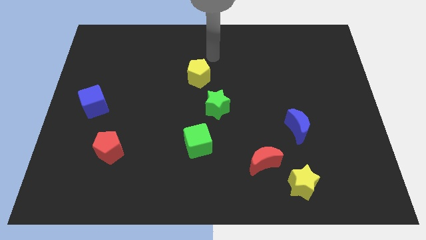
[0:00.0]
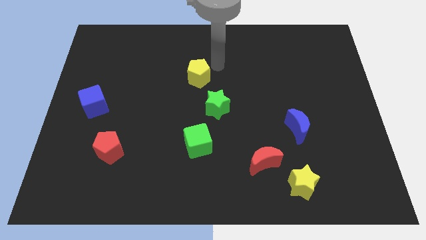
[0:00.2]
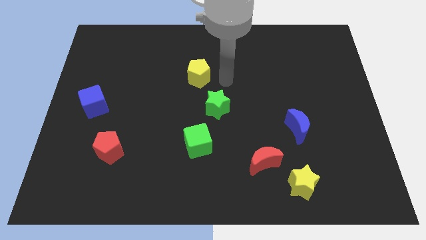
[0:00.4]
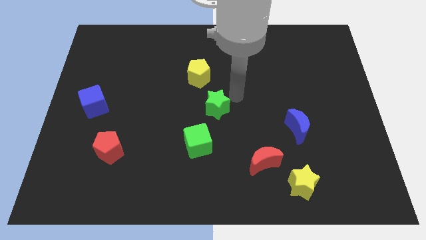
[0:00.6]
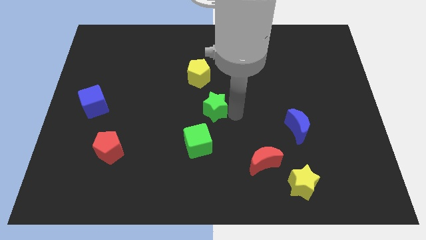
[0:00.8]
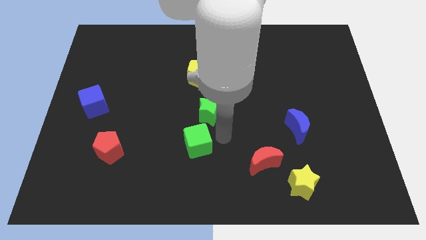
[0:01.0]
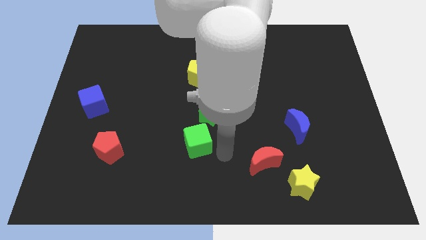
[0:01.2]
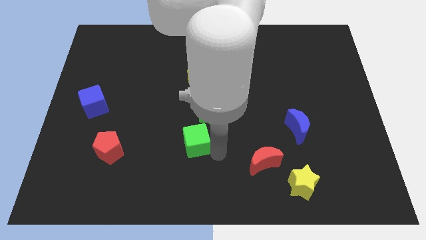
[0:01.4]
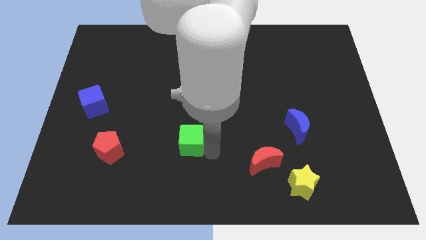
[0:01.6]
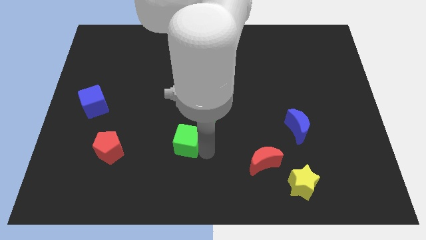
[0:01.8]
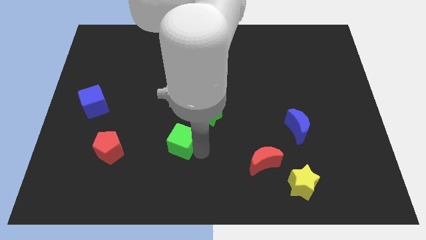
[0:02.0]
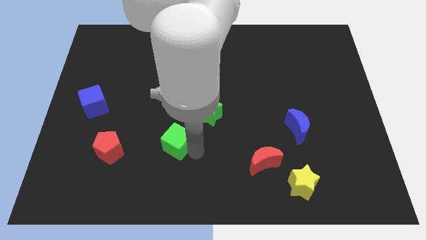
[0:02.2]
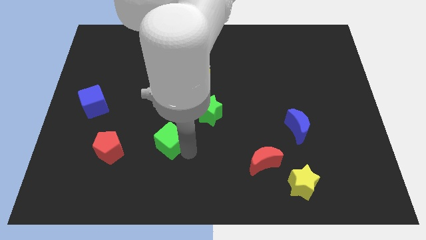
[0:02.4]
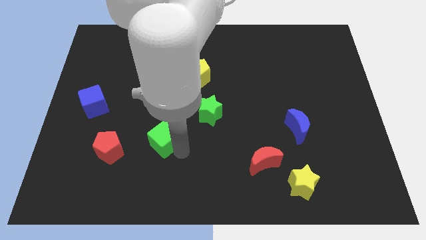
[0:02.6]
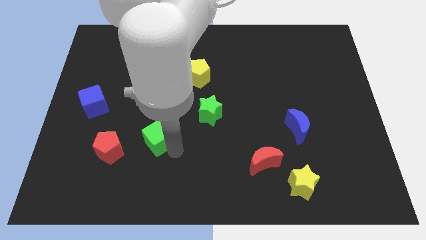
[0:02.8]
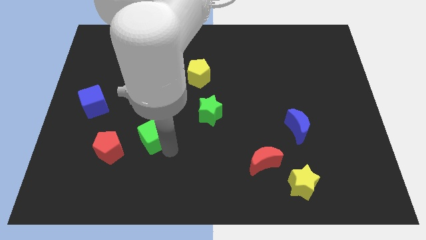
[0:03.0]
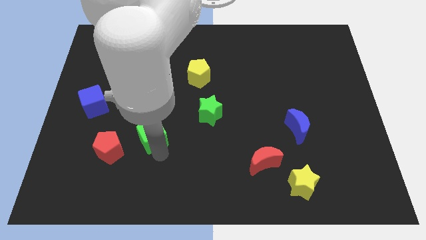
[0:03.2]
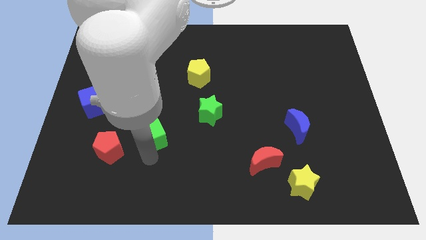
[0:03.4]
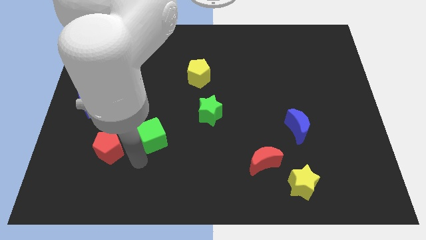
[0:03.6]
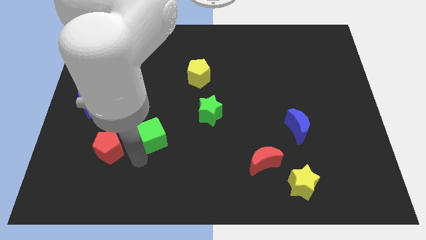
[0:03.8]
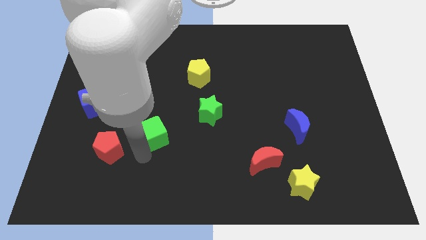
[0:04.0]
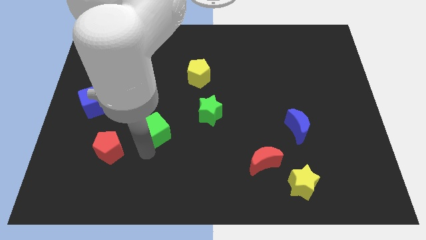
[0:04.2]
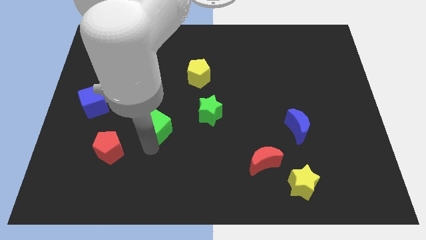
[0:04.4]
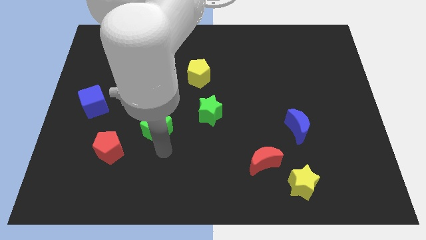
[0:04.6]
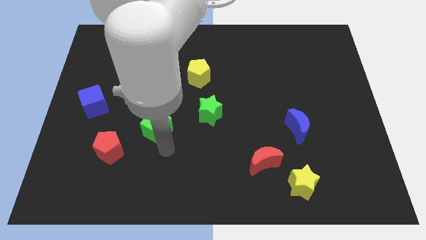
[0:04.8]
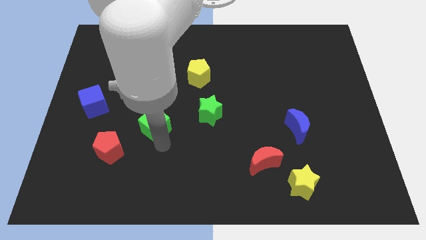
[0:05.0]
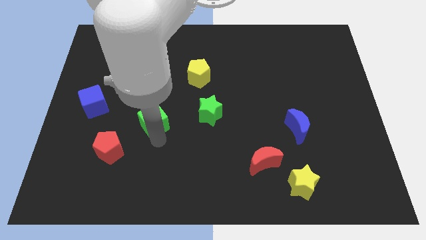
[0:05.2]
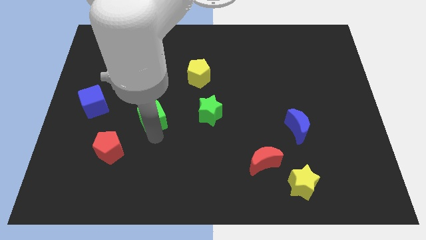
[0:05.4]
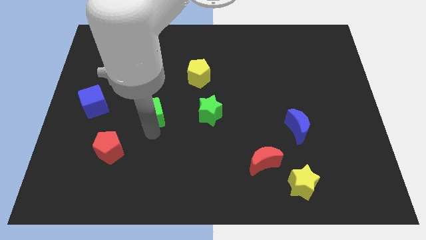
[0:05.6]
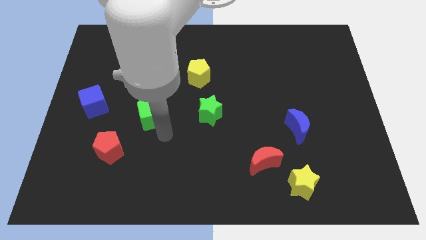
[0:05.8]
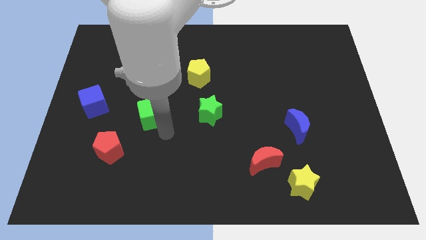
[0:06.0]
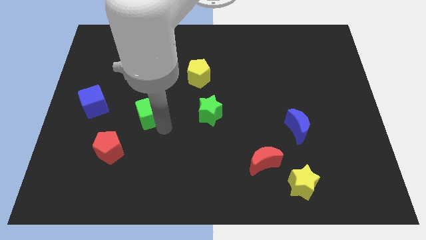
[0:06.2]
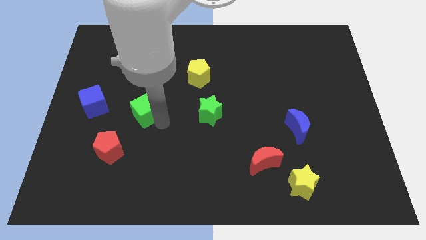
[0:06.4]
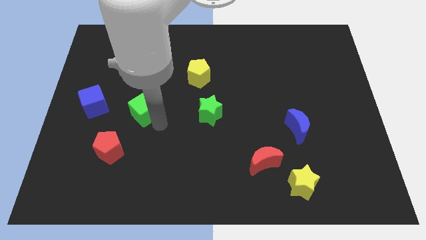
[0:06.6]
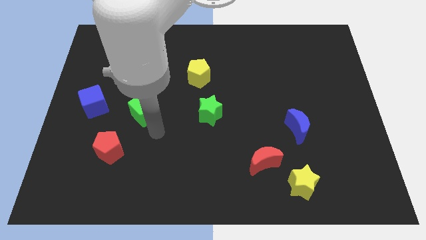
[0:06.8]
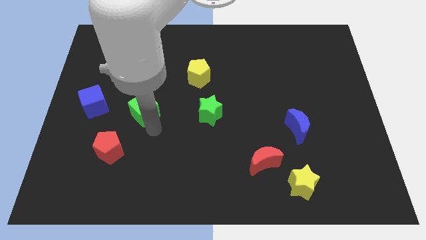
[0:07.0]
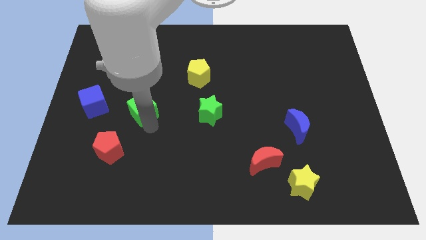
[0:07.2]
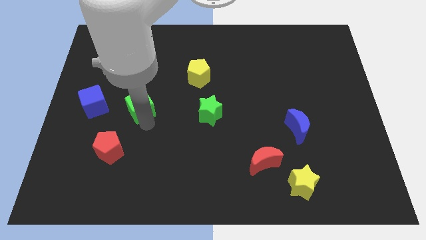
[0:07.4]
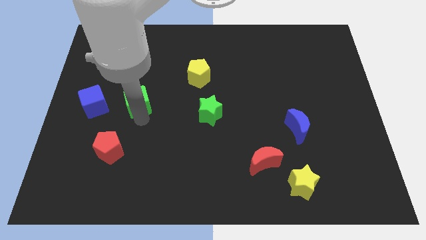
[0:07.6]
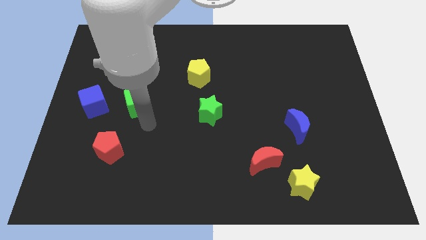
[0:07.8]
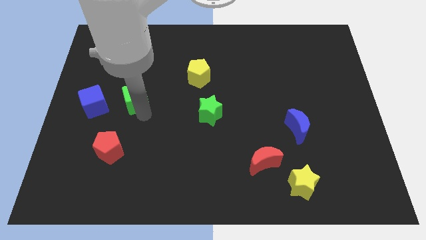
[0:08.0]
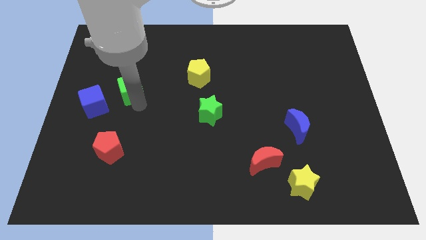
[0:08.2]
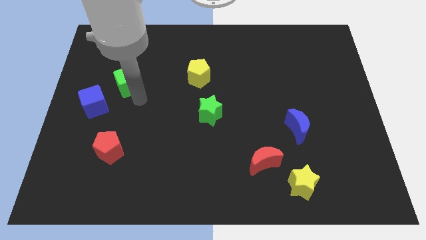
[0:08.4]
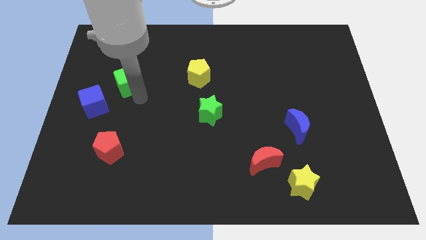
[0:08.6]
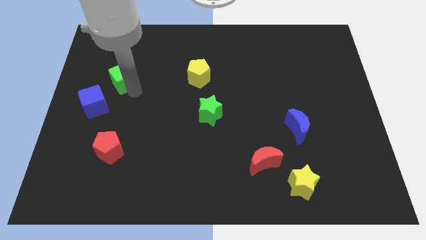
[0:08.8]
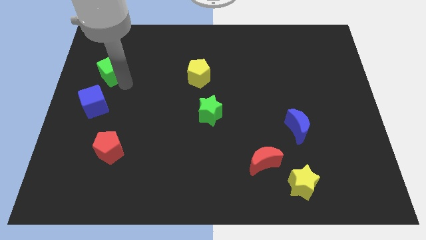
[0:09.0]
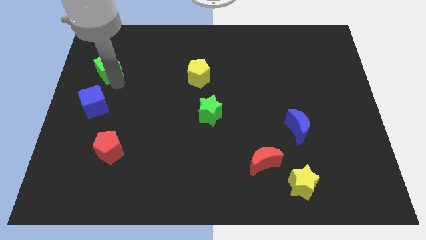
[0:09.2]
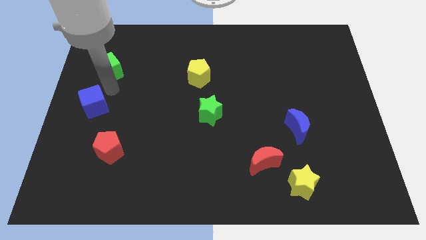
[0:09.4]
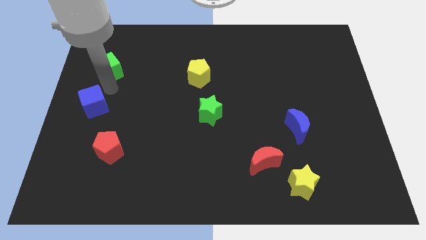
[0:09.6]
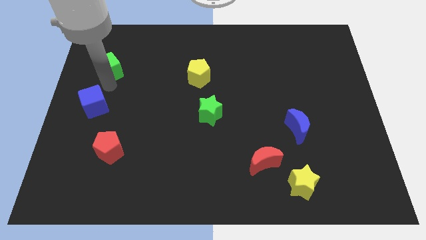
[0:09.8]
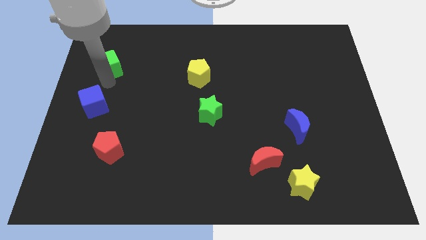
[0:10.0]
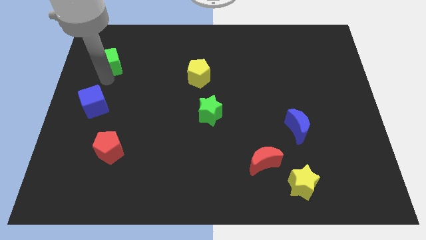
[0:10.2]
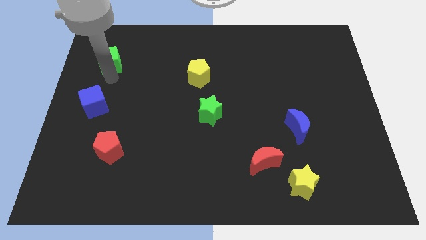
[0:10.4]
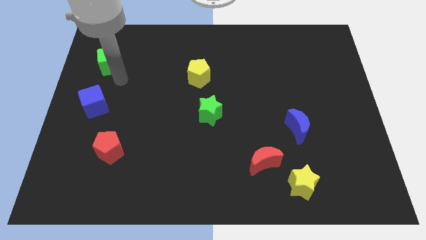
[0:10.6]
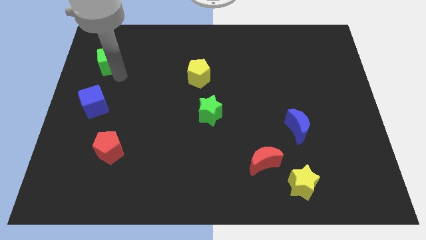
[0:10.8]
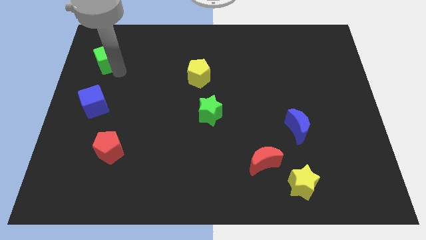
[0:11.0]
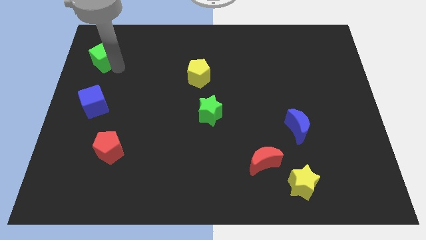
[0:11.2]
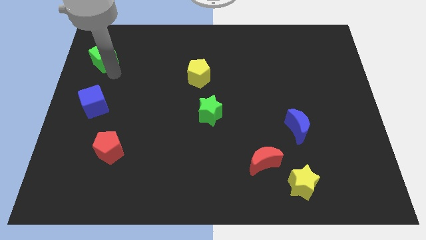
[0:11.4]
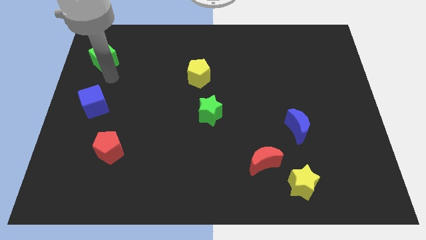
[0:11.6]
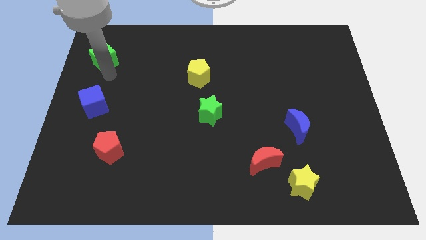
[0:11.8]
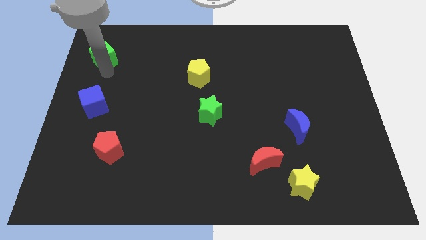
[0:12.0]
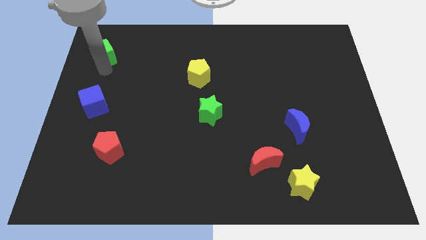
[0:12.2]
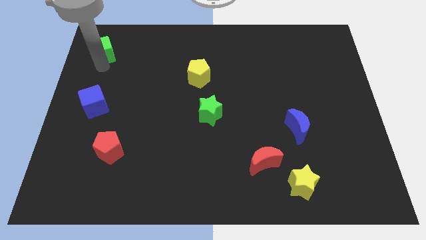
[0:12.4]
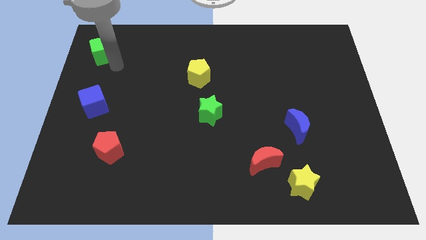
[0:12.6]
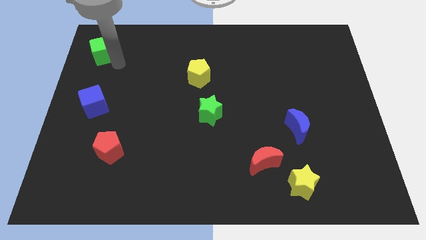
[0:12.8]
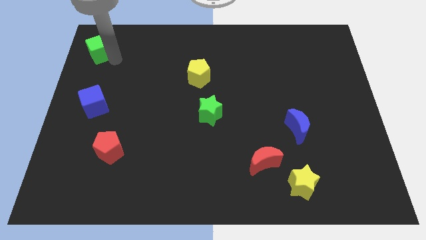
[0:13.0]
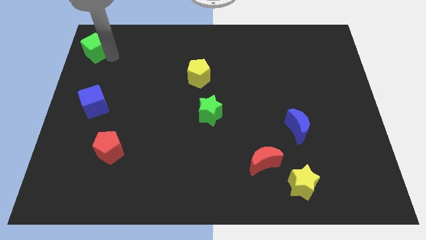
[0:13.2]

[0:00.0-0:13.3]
push the green cube to the upper left corner
